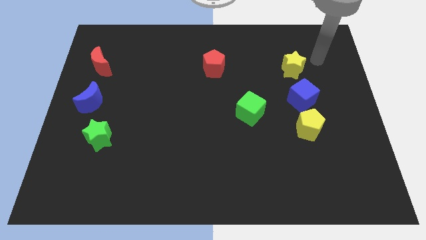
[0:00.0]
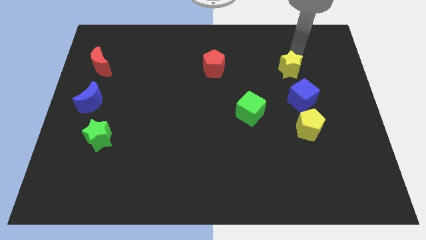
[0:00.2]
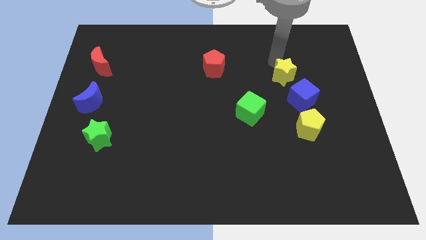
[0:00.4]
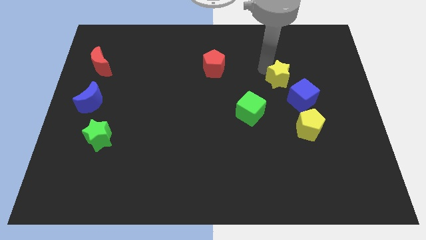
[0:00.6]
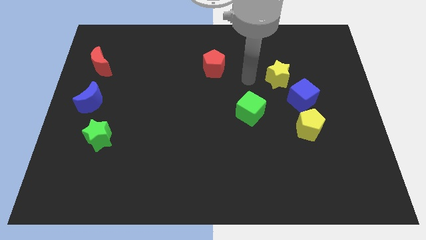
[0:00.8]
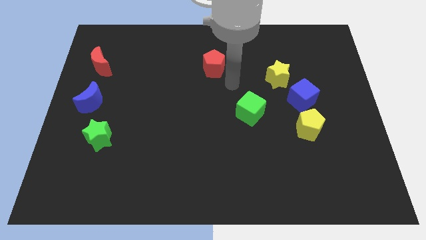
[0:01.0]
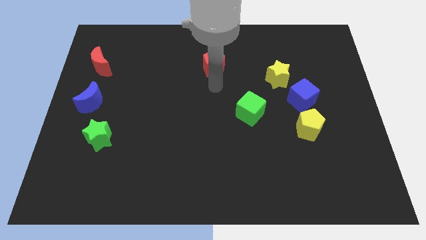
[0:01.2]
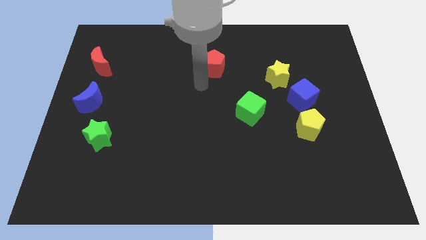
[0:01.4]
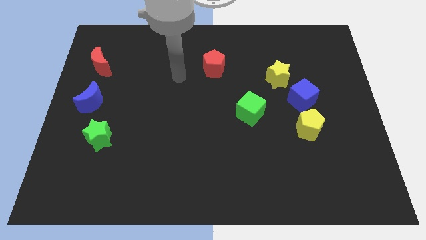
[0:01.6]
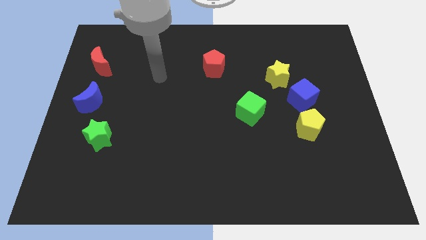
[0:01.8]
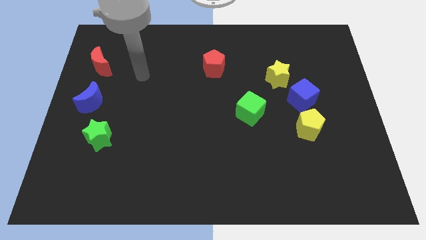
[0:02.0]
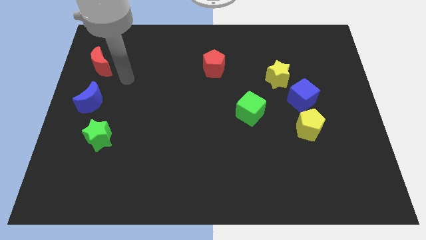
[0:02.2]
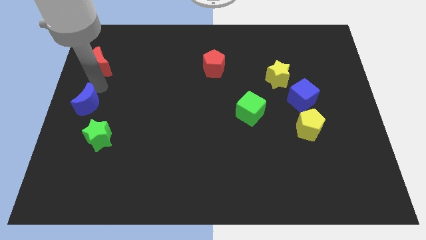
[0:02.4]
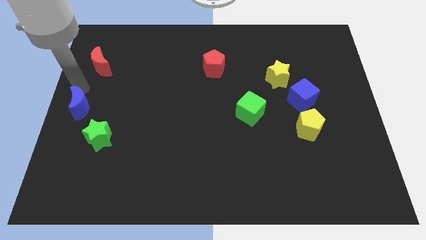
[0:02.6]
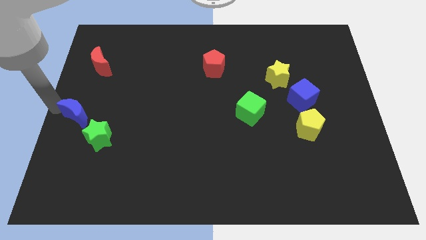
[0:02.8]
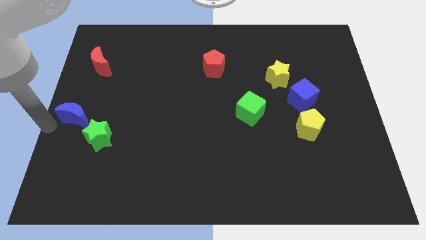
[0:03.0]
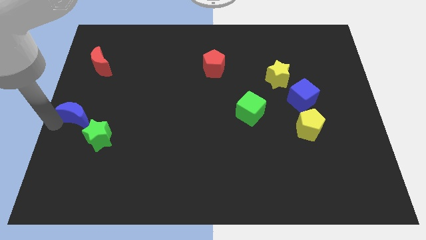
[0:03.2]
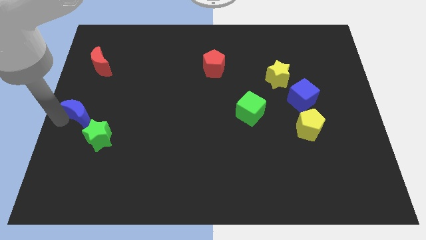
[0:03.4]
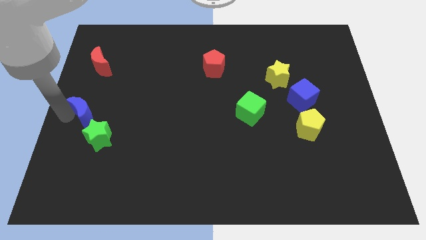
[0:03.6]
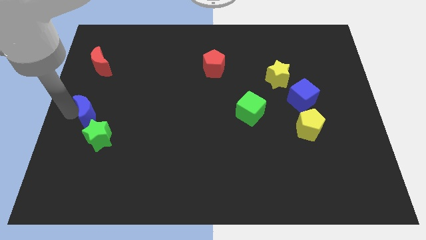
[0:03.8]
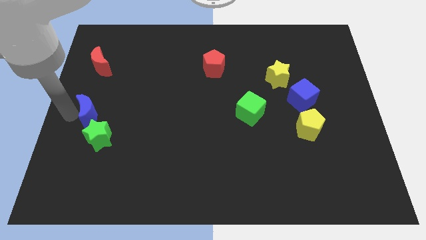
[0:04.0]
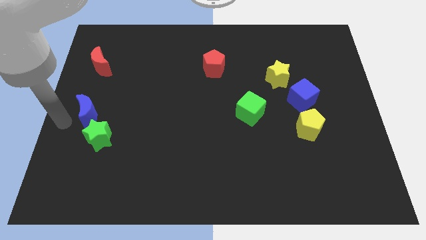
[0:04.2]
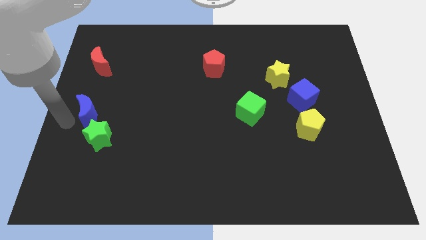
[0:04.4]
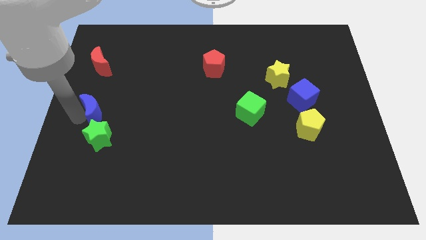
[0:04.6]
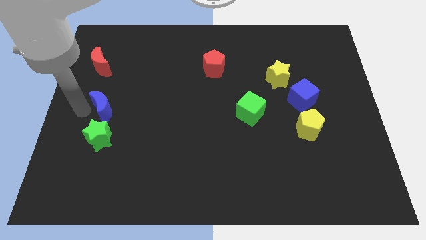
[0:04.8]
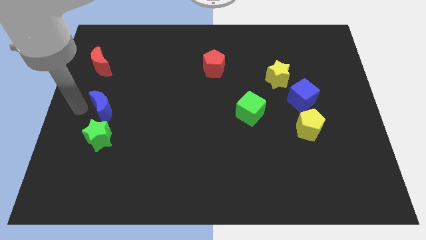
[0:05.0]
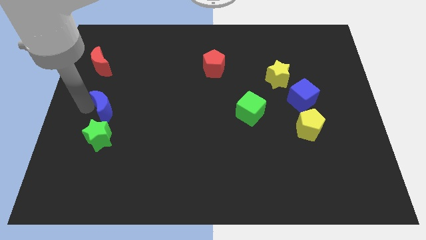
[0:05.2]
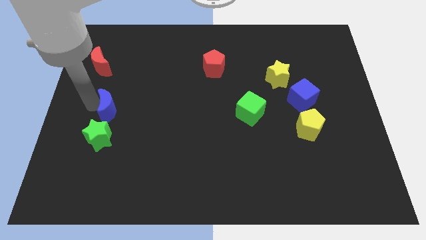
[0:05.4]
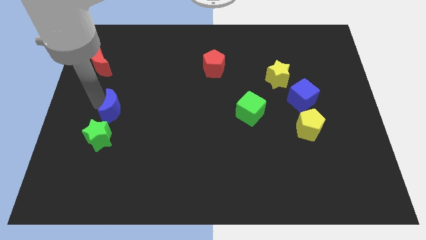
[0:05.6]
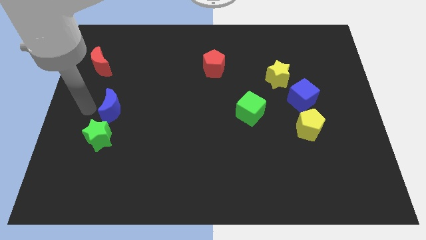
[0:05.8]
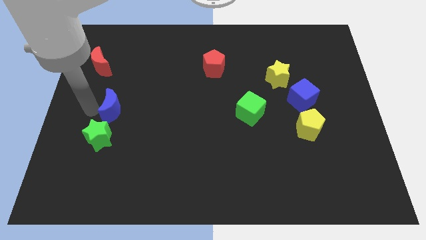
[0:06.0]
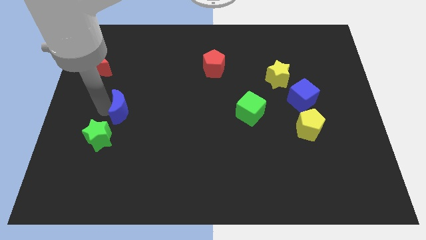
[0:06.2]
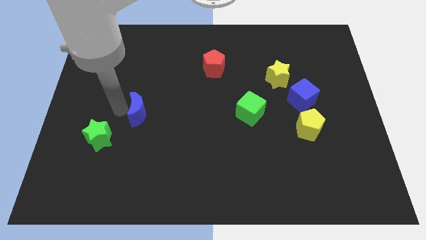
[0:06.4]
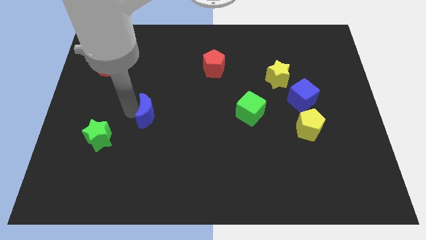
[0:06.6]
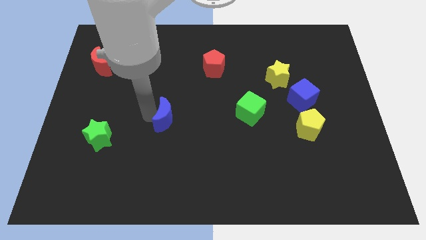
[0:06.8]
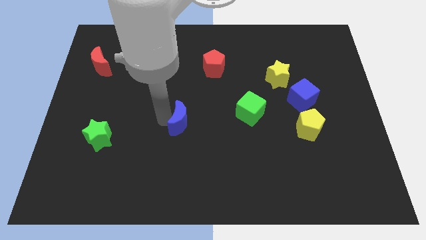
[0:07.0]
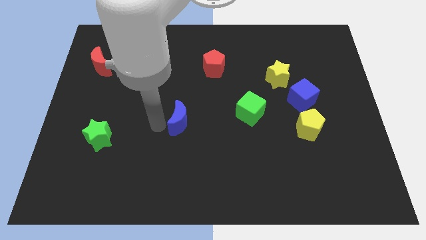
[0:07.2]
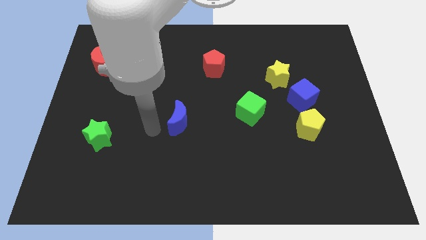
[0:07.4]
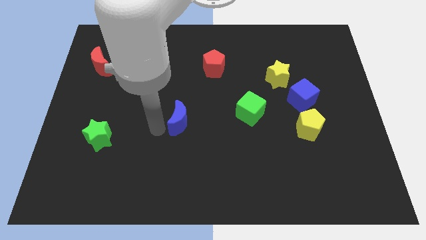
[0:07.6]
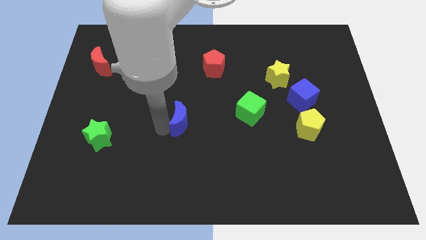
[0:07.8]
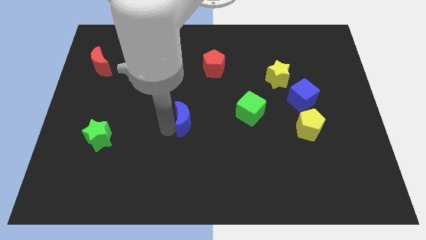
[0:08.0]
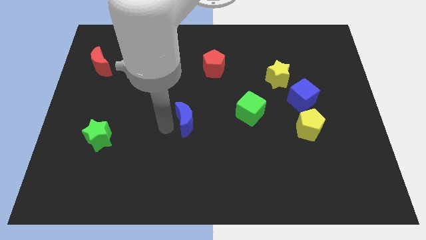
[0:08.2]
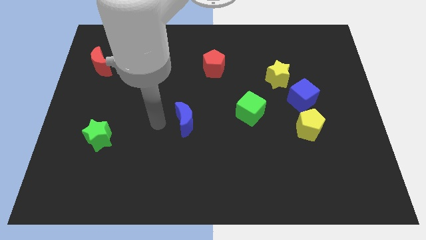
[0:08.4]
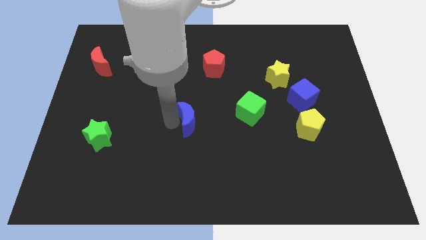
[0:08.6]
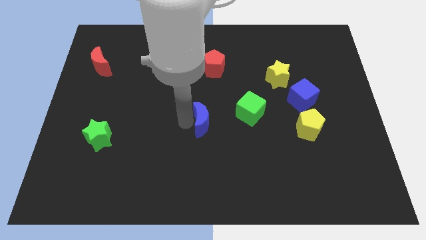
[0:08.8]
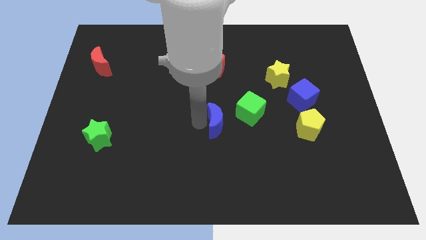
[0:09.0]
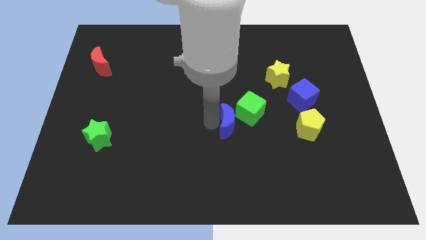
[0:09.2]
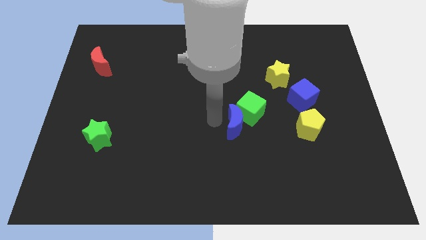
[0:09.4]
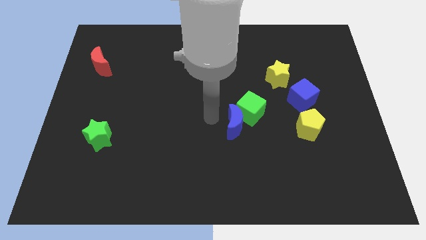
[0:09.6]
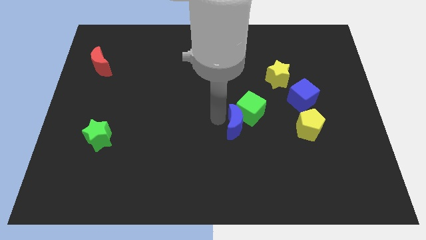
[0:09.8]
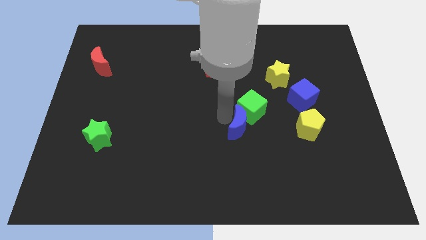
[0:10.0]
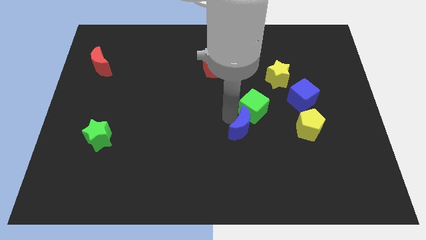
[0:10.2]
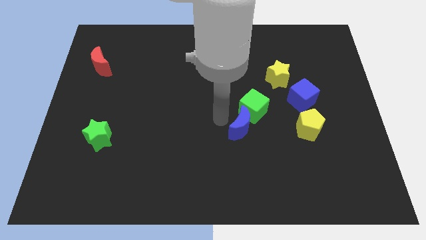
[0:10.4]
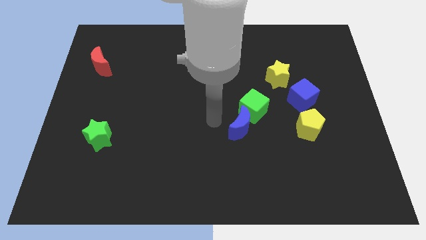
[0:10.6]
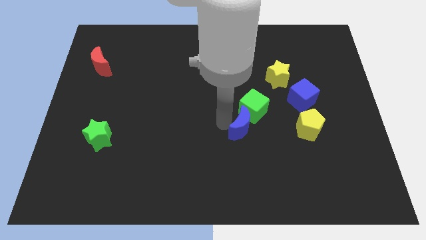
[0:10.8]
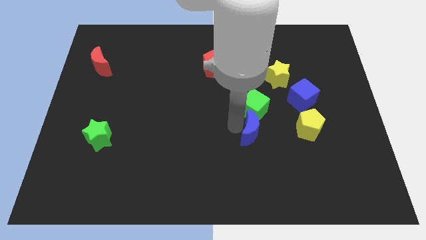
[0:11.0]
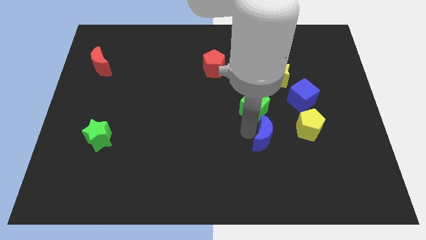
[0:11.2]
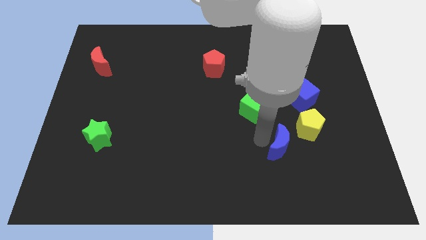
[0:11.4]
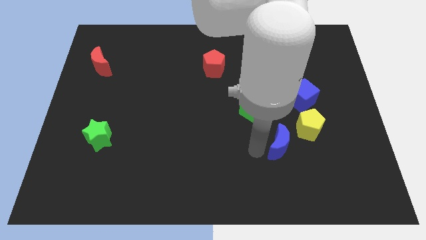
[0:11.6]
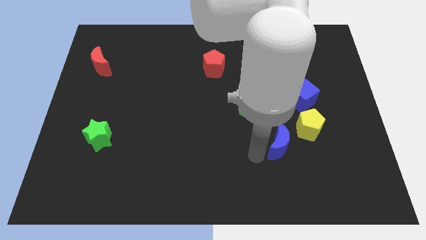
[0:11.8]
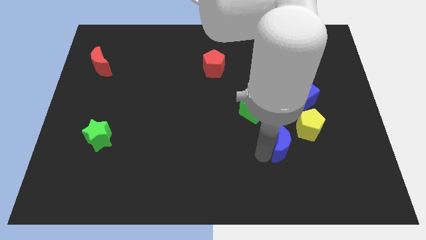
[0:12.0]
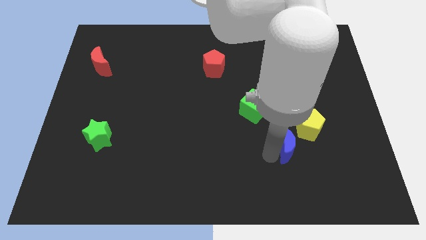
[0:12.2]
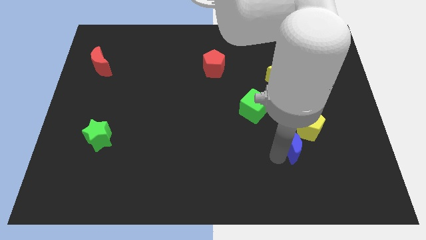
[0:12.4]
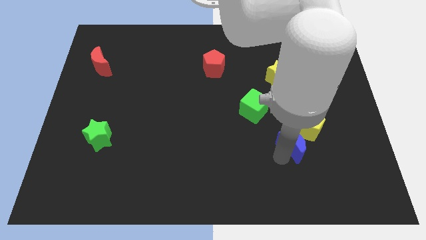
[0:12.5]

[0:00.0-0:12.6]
slide the blue moon below the blue cube
